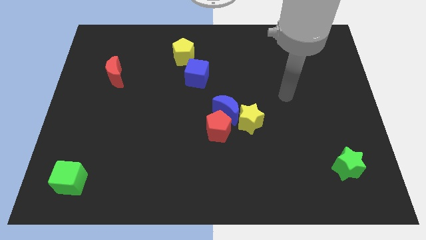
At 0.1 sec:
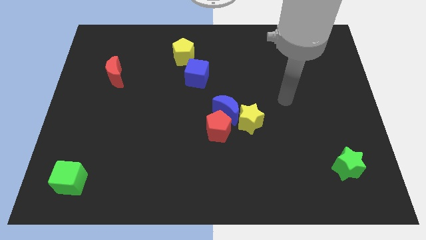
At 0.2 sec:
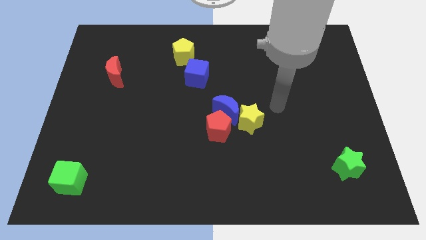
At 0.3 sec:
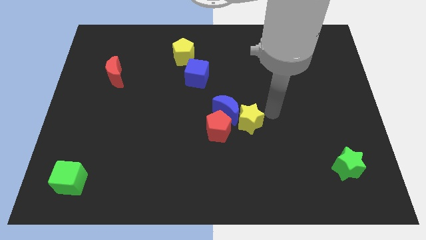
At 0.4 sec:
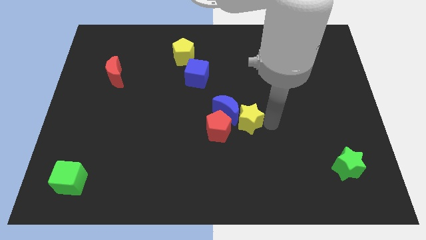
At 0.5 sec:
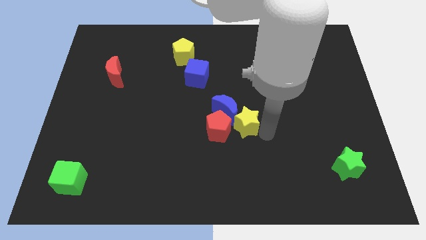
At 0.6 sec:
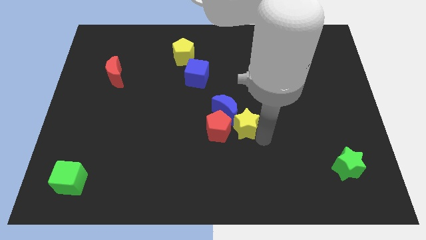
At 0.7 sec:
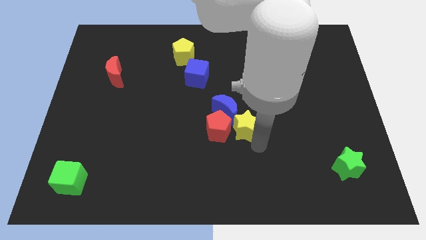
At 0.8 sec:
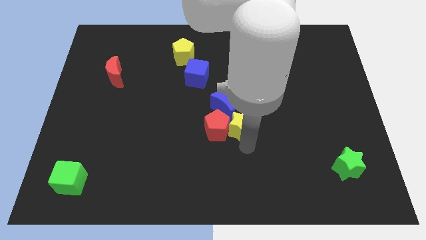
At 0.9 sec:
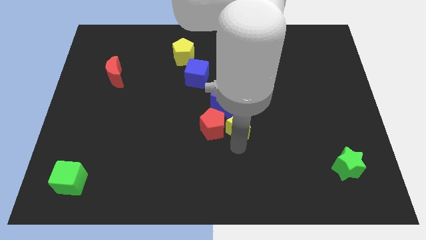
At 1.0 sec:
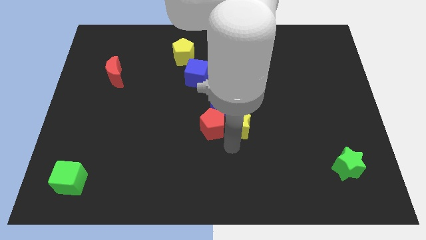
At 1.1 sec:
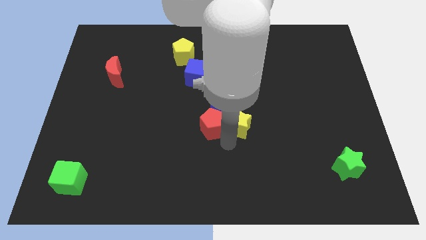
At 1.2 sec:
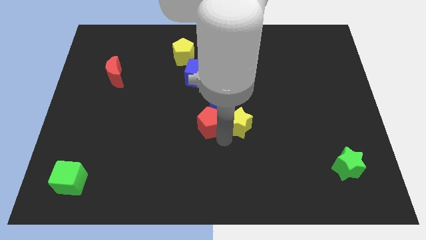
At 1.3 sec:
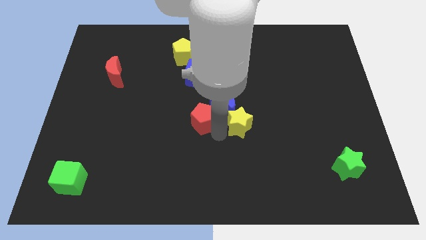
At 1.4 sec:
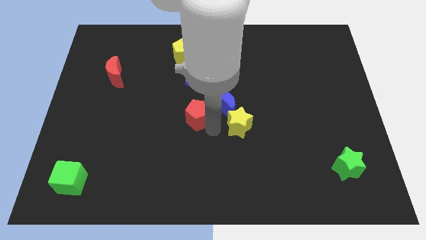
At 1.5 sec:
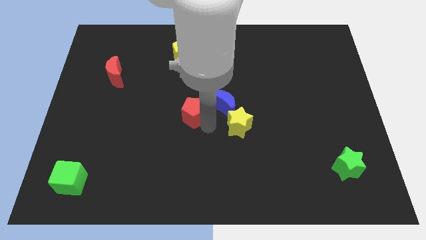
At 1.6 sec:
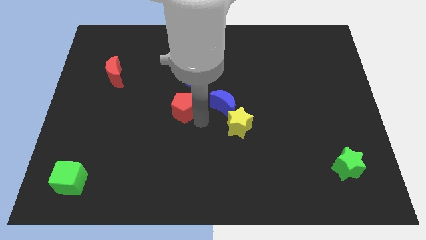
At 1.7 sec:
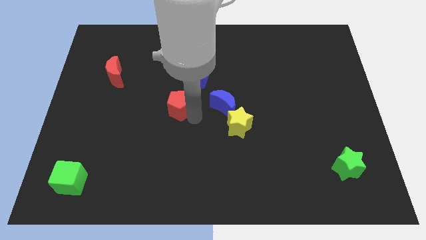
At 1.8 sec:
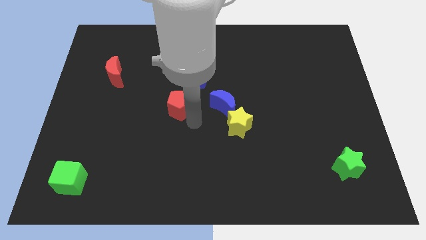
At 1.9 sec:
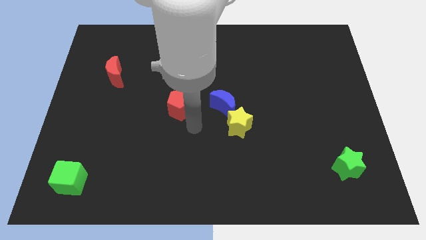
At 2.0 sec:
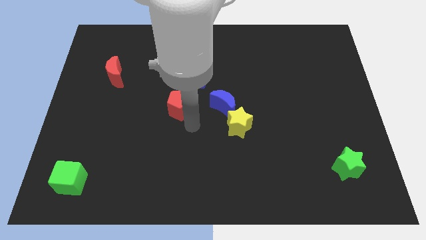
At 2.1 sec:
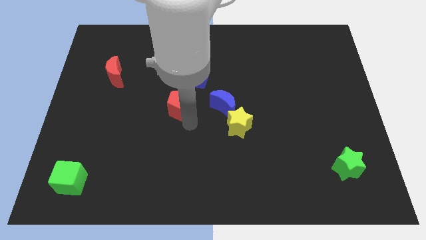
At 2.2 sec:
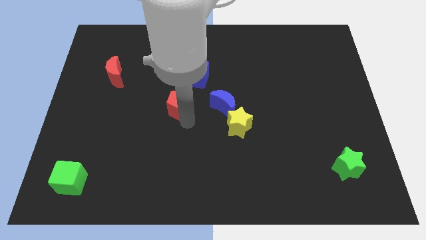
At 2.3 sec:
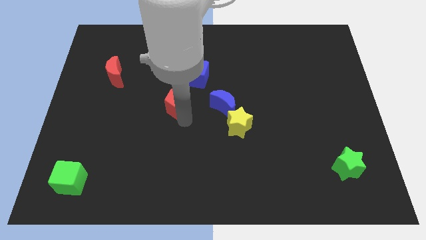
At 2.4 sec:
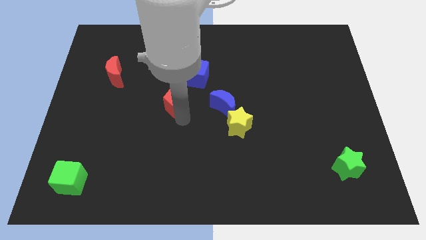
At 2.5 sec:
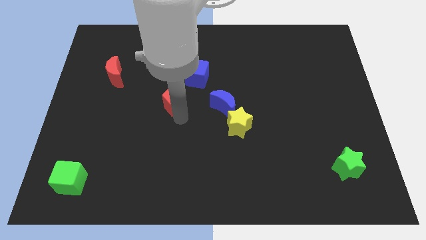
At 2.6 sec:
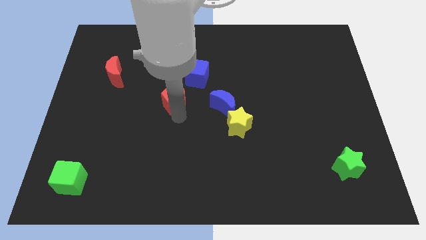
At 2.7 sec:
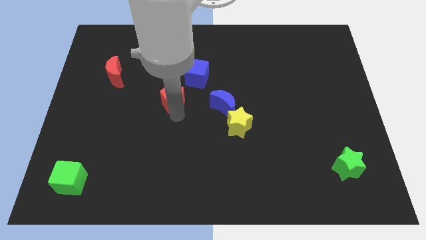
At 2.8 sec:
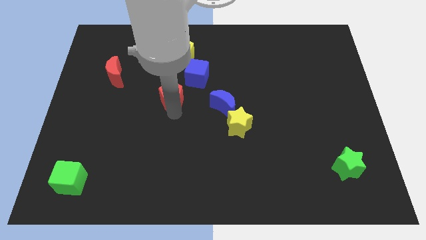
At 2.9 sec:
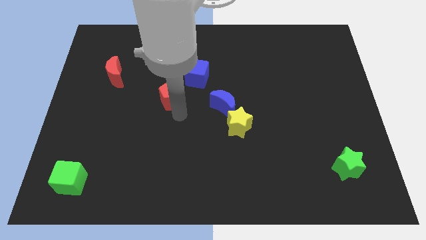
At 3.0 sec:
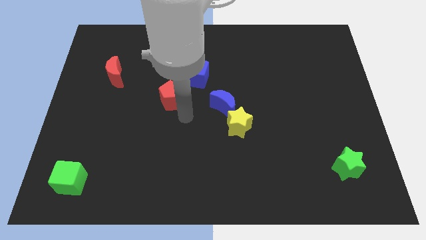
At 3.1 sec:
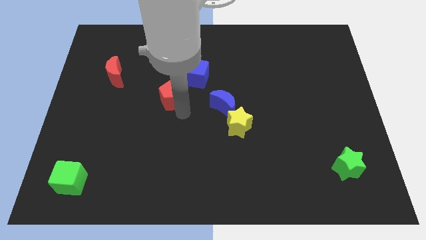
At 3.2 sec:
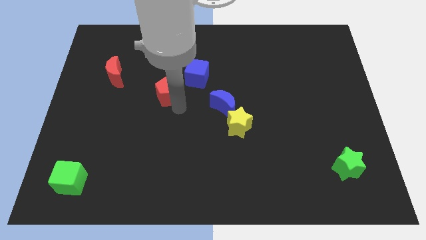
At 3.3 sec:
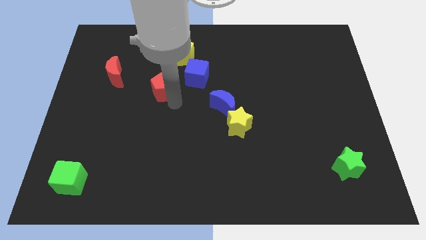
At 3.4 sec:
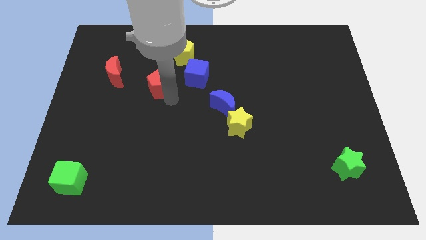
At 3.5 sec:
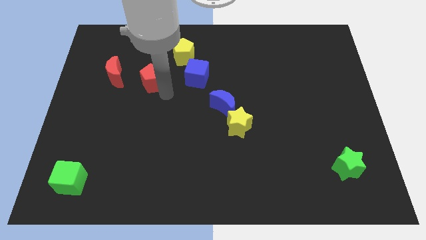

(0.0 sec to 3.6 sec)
move the red pentagon upwards and to the left diagonally

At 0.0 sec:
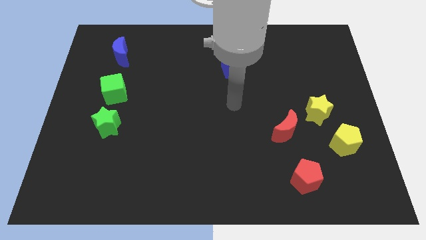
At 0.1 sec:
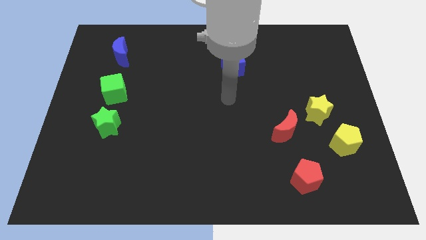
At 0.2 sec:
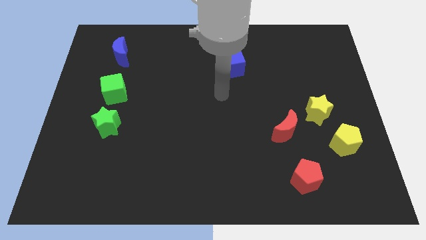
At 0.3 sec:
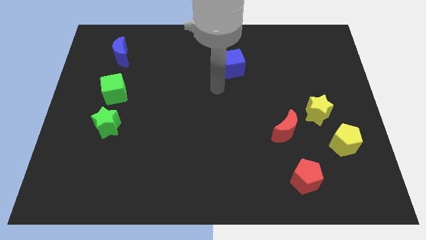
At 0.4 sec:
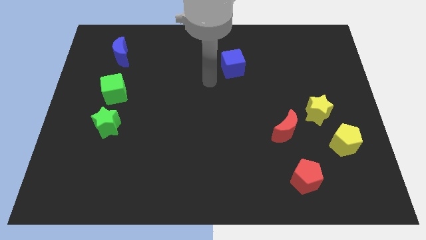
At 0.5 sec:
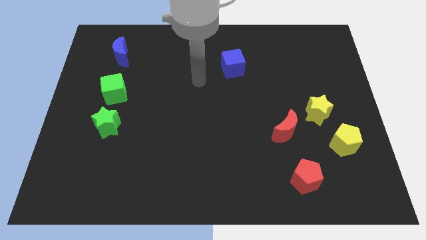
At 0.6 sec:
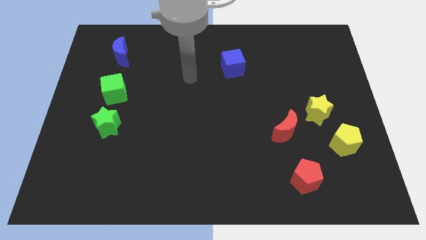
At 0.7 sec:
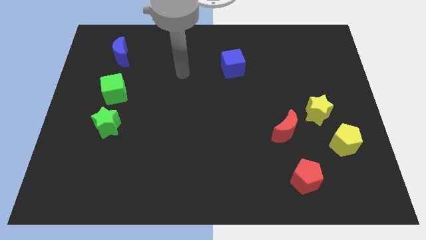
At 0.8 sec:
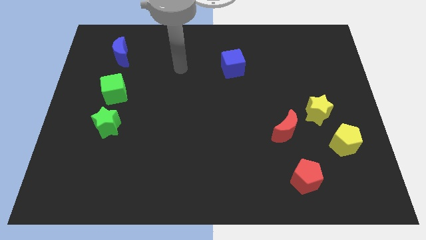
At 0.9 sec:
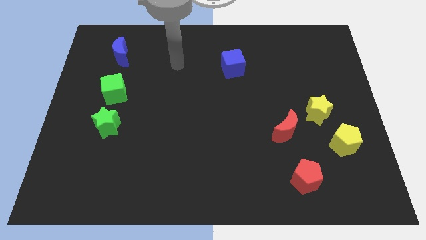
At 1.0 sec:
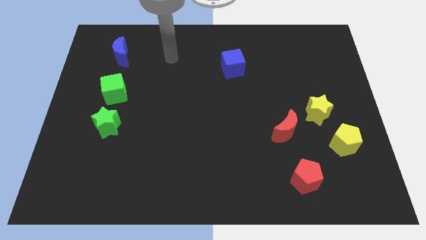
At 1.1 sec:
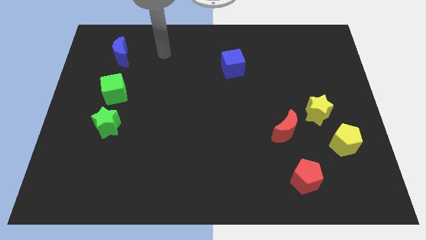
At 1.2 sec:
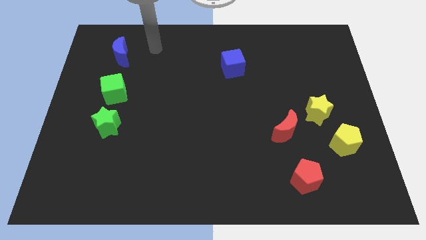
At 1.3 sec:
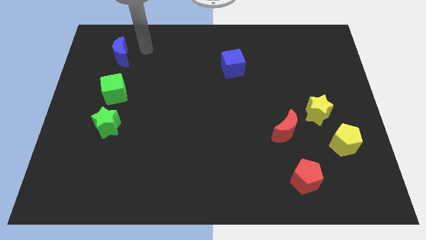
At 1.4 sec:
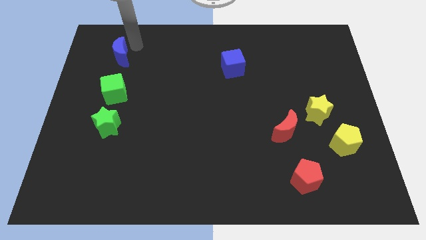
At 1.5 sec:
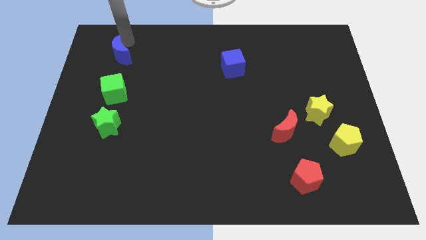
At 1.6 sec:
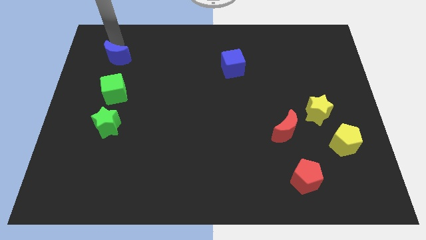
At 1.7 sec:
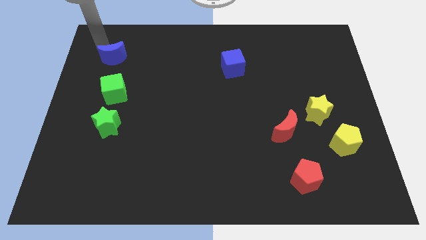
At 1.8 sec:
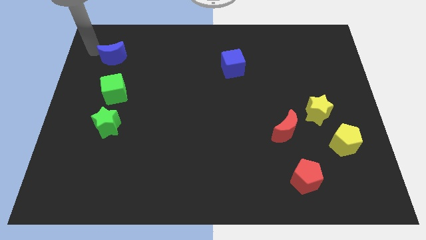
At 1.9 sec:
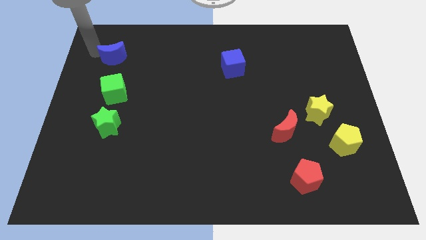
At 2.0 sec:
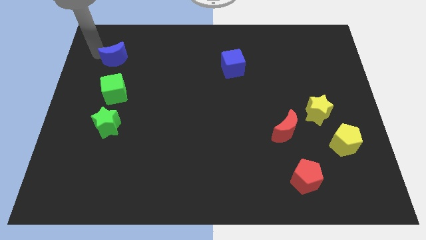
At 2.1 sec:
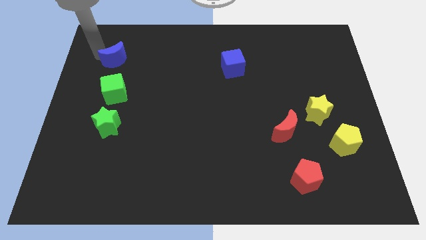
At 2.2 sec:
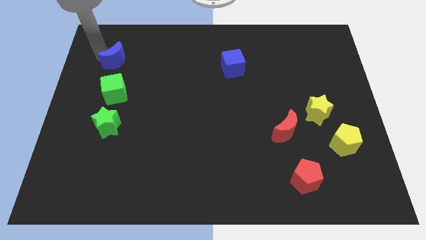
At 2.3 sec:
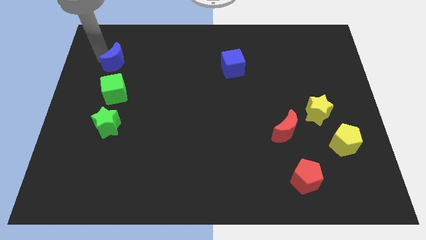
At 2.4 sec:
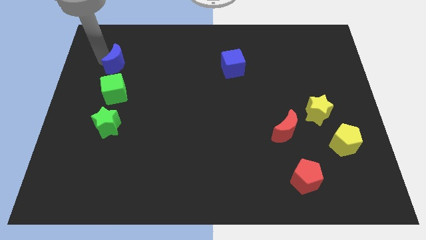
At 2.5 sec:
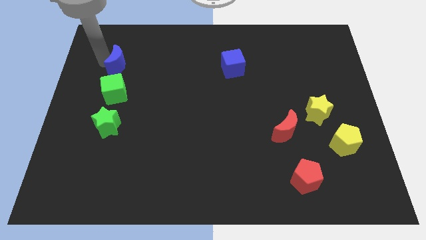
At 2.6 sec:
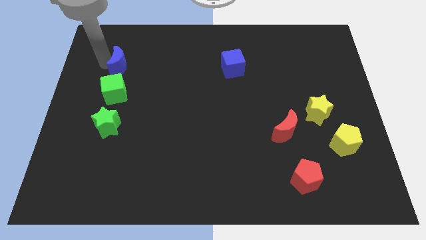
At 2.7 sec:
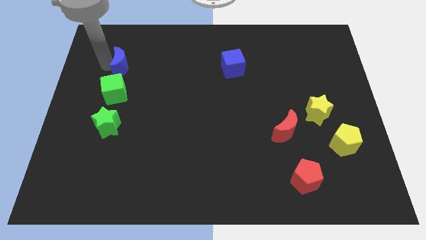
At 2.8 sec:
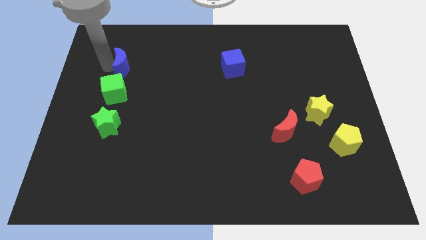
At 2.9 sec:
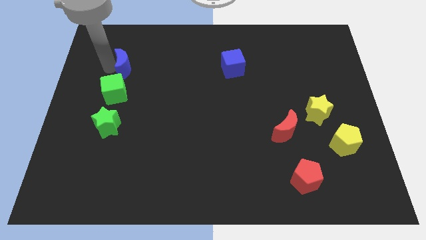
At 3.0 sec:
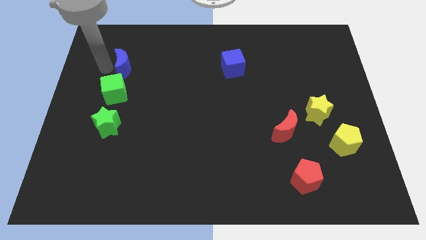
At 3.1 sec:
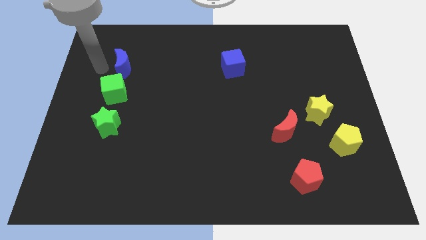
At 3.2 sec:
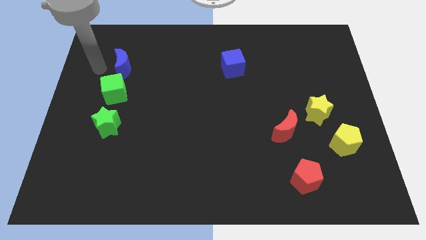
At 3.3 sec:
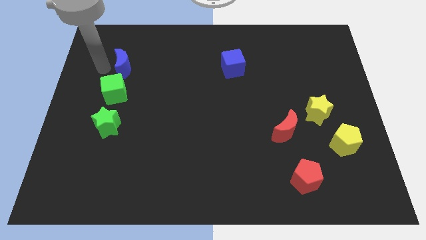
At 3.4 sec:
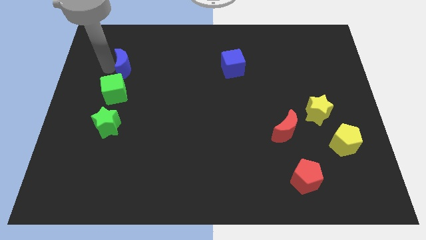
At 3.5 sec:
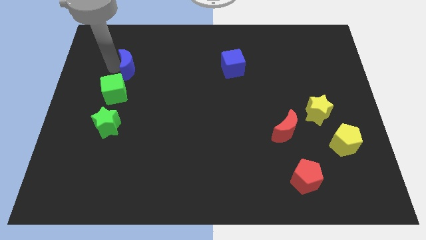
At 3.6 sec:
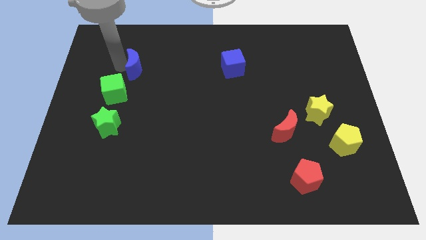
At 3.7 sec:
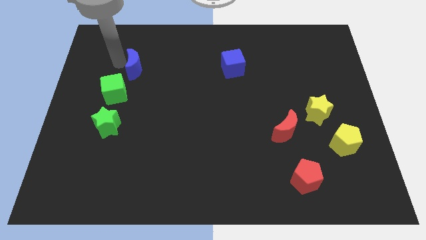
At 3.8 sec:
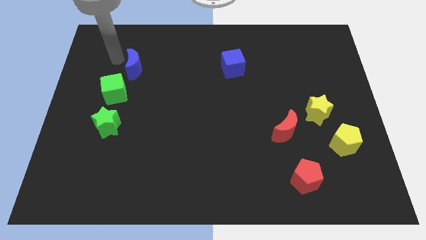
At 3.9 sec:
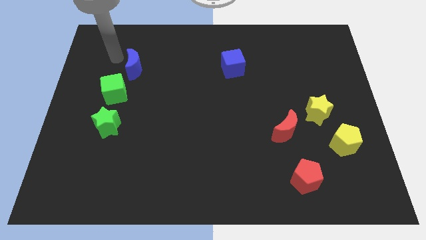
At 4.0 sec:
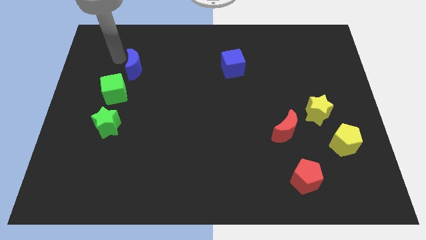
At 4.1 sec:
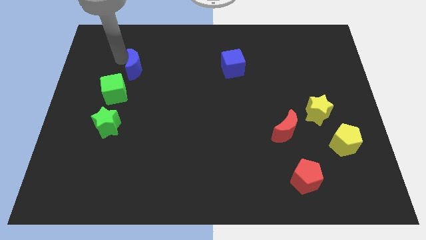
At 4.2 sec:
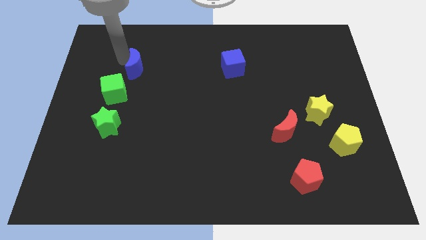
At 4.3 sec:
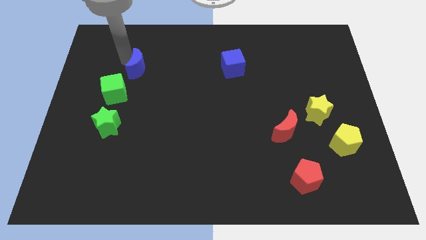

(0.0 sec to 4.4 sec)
slide the blue moon downwards and to the right diagonally a little
